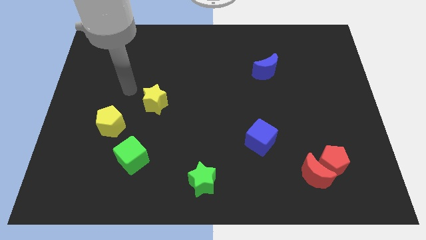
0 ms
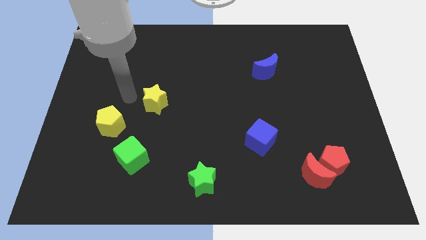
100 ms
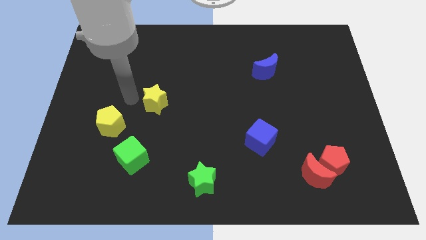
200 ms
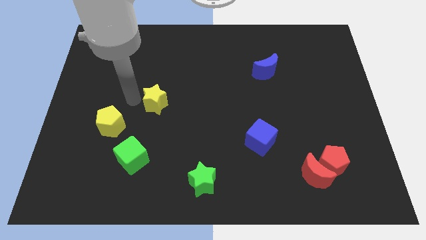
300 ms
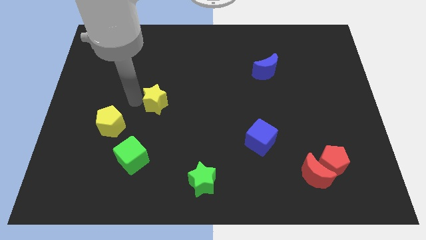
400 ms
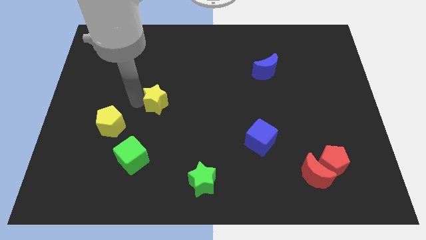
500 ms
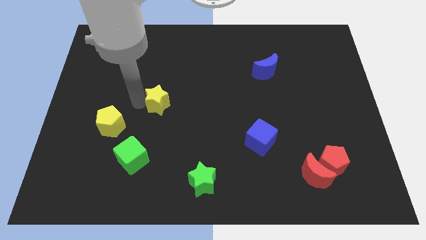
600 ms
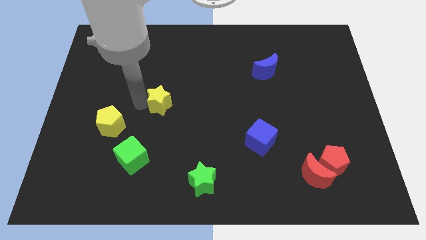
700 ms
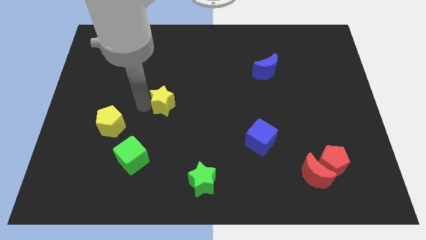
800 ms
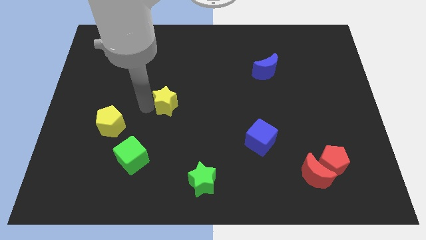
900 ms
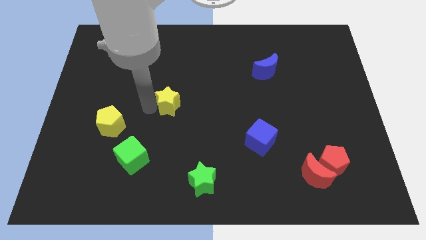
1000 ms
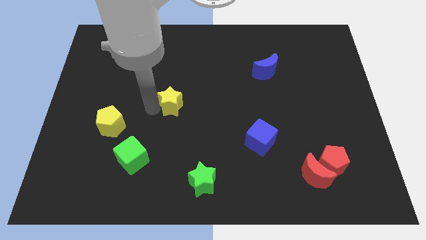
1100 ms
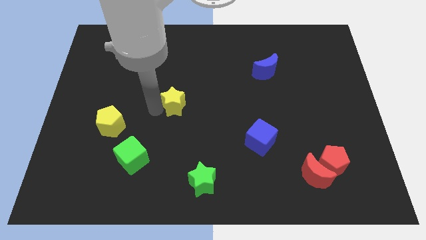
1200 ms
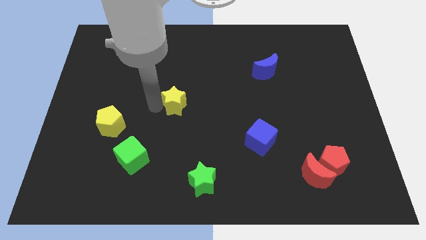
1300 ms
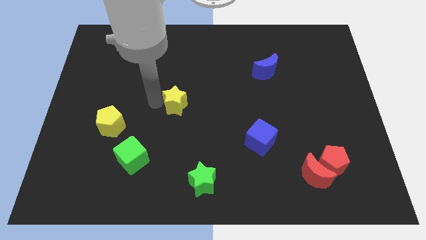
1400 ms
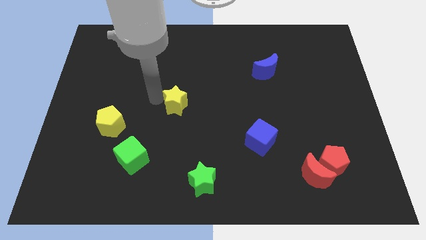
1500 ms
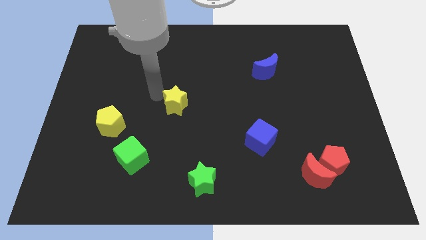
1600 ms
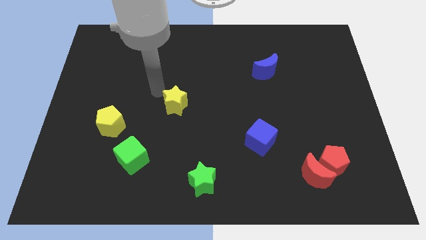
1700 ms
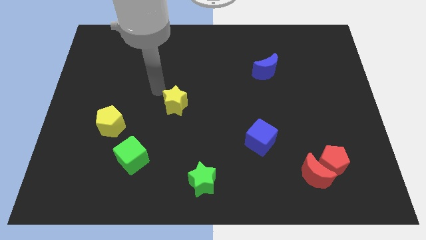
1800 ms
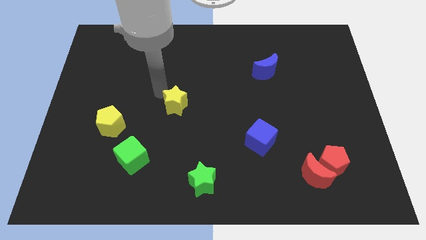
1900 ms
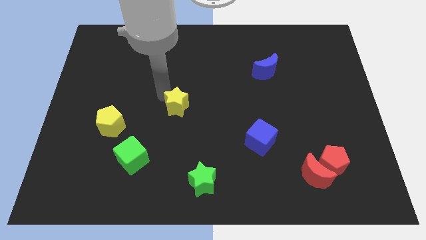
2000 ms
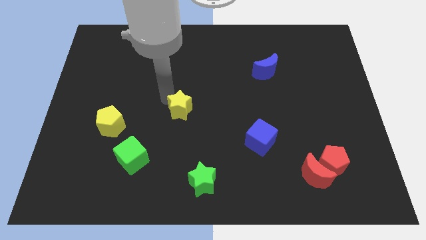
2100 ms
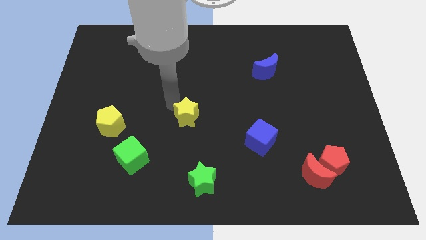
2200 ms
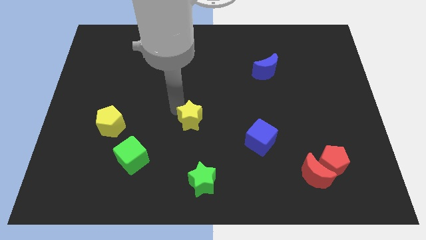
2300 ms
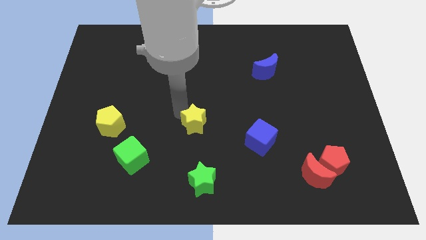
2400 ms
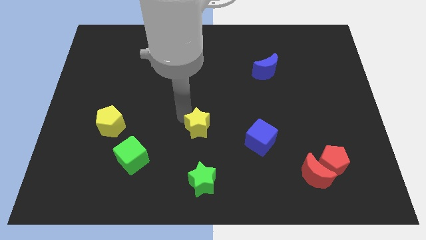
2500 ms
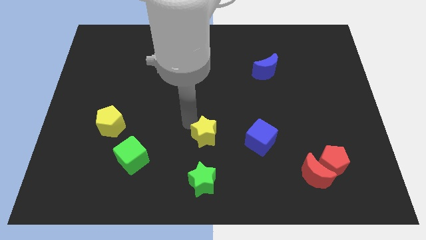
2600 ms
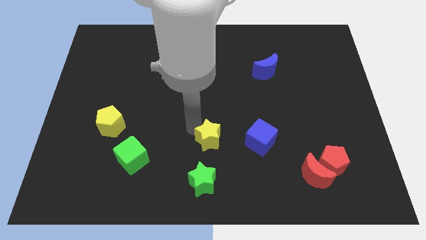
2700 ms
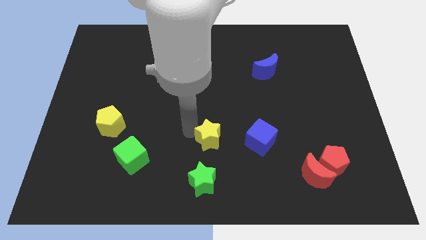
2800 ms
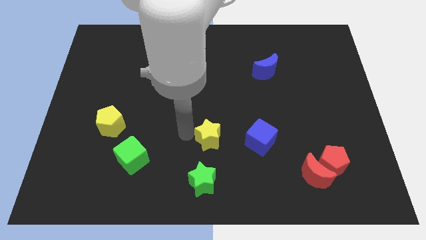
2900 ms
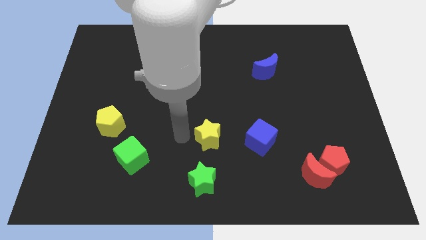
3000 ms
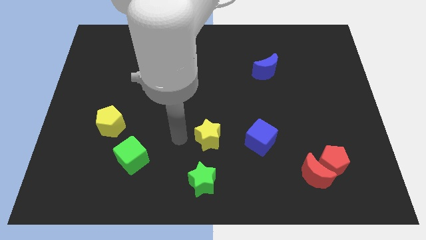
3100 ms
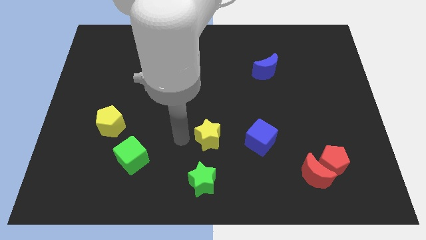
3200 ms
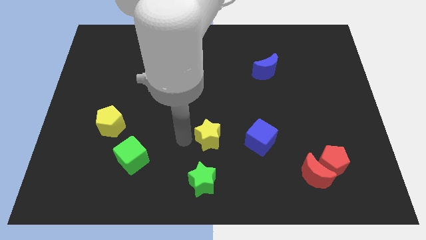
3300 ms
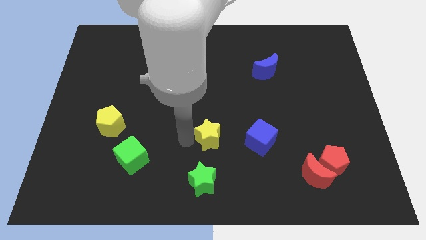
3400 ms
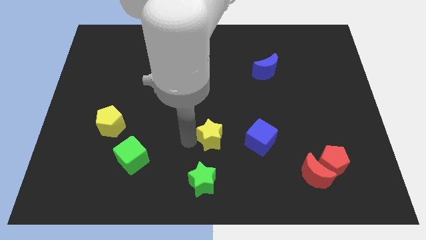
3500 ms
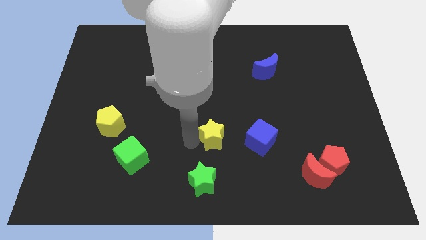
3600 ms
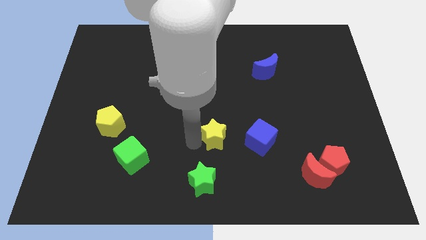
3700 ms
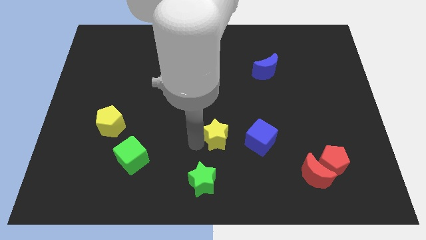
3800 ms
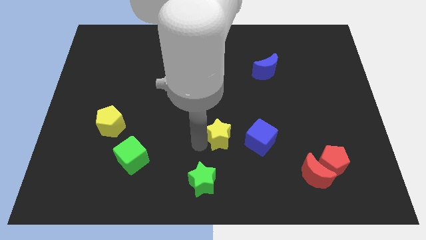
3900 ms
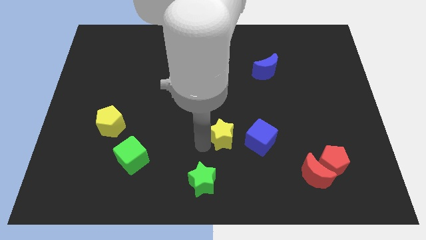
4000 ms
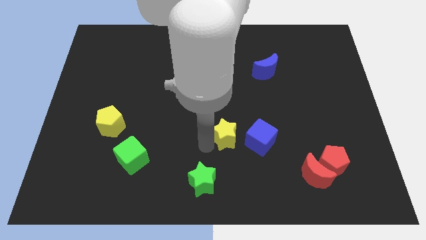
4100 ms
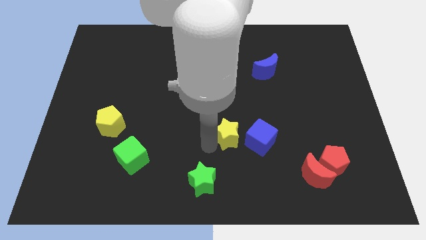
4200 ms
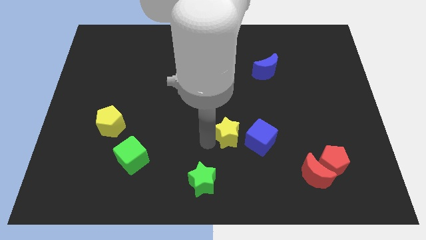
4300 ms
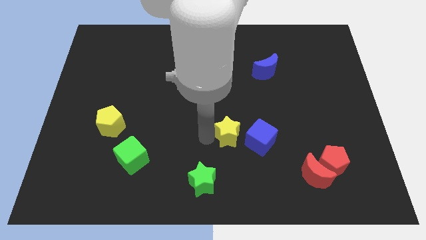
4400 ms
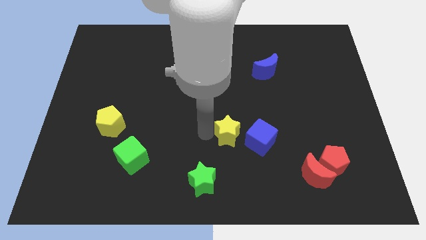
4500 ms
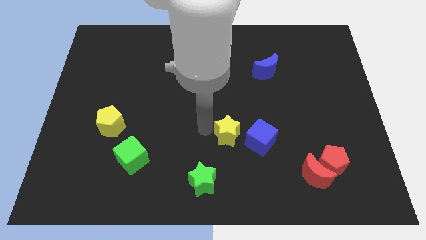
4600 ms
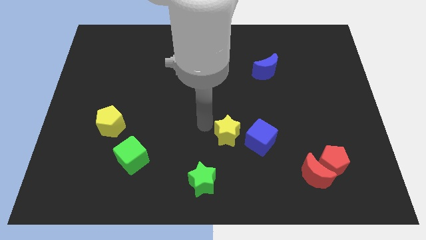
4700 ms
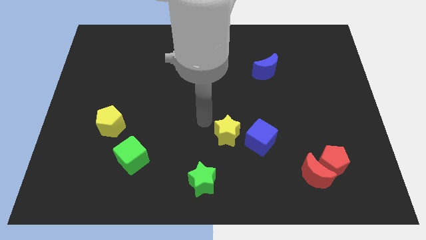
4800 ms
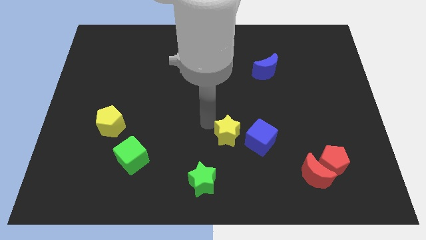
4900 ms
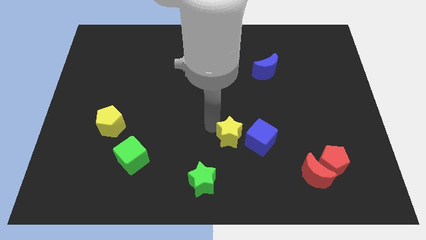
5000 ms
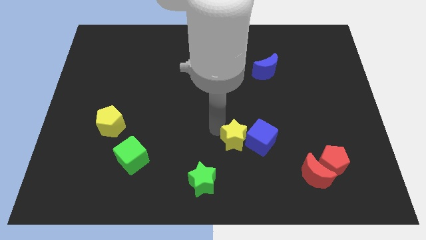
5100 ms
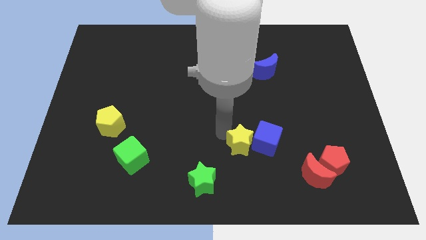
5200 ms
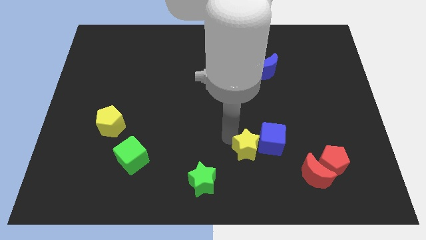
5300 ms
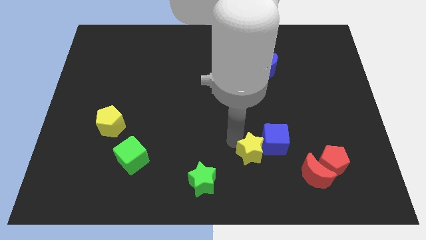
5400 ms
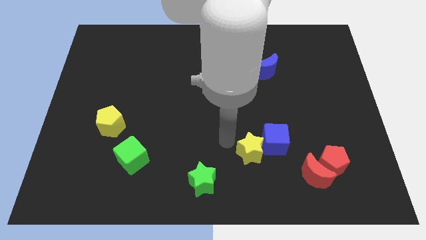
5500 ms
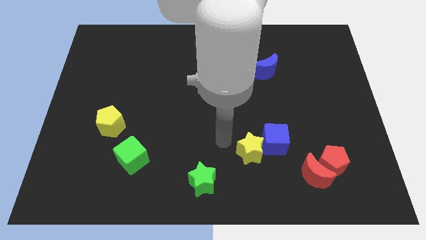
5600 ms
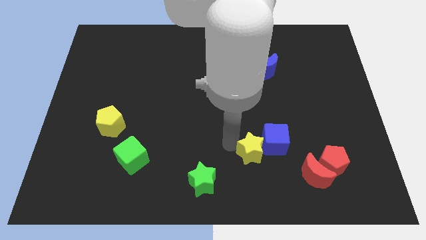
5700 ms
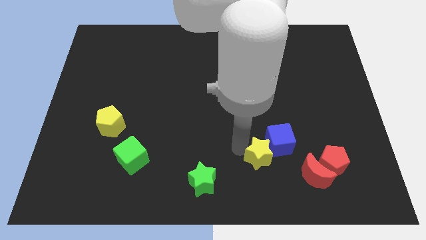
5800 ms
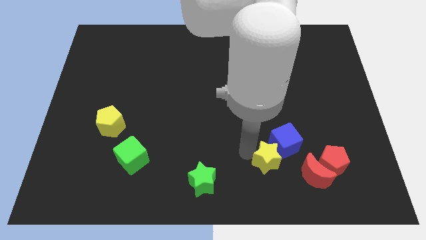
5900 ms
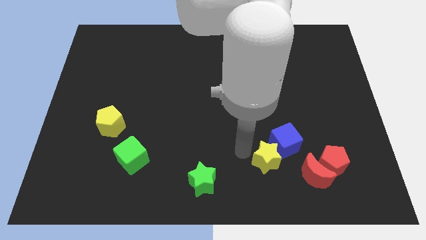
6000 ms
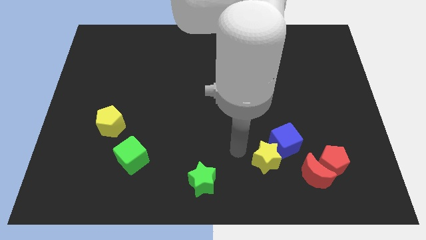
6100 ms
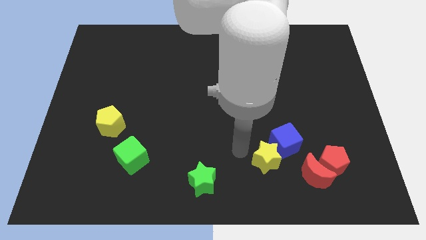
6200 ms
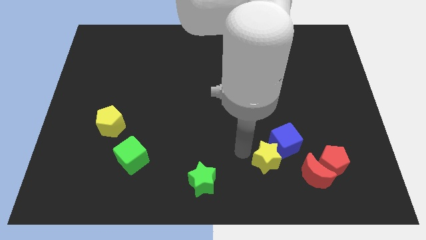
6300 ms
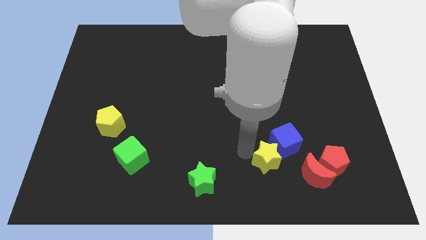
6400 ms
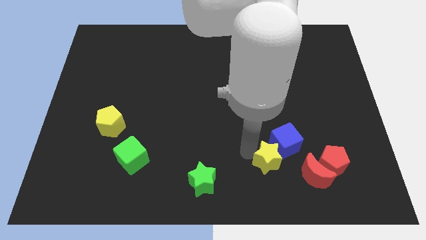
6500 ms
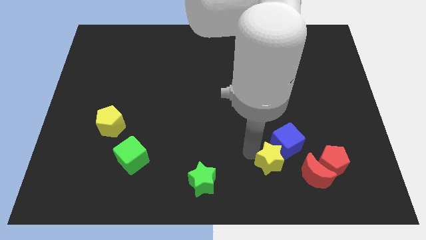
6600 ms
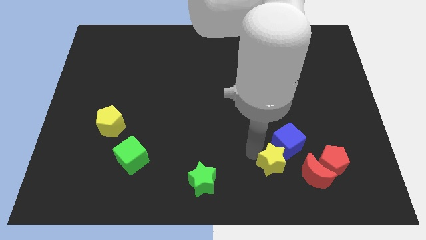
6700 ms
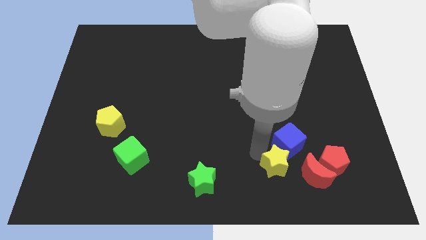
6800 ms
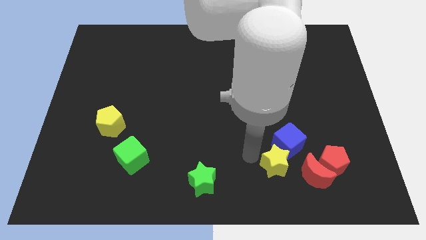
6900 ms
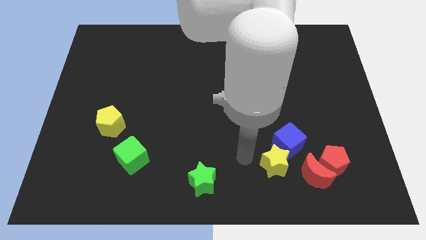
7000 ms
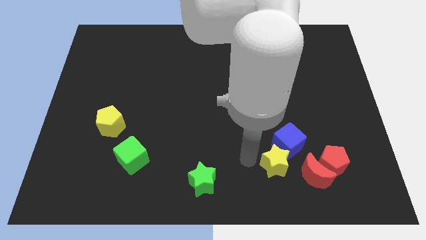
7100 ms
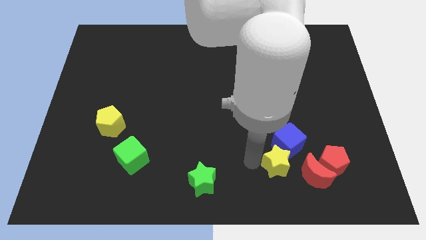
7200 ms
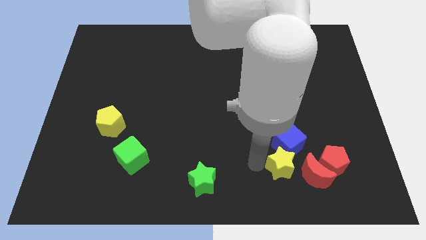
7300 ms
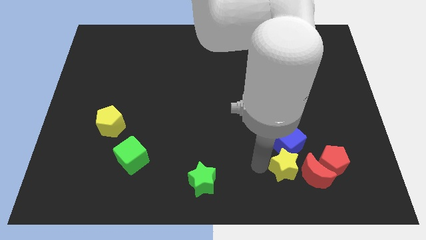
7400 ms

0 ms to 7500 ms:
put the yellow star close to the red moon

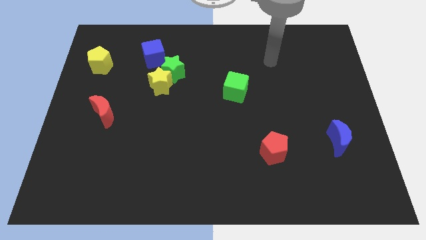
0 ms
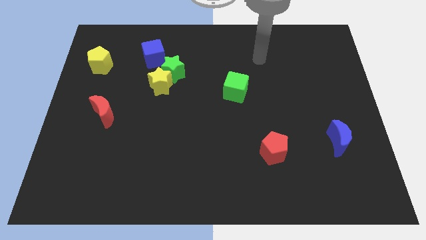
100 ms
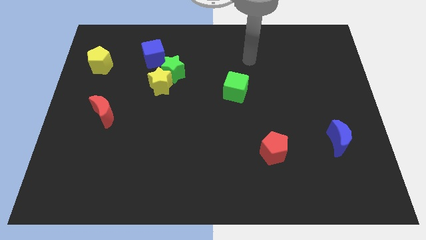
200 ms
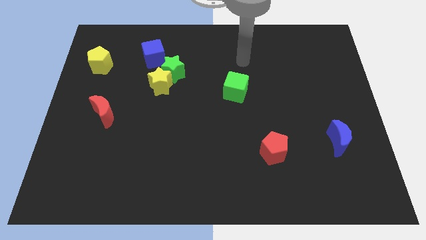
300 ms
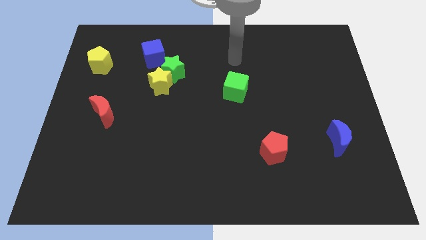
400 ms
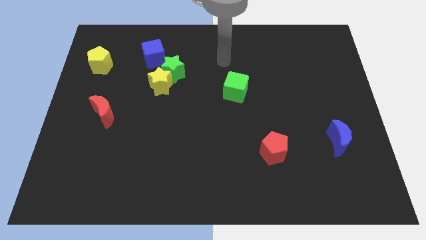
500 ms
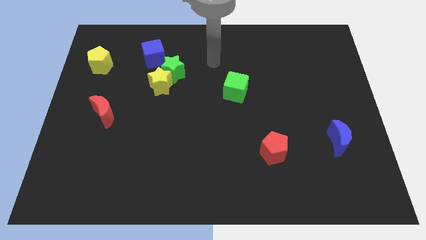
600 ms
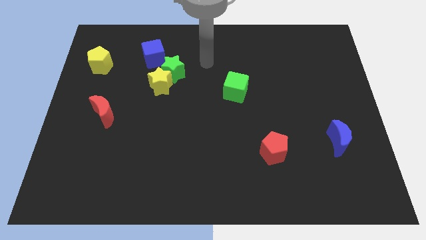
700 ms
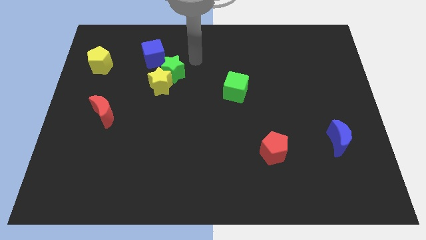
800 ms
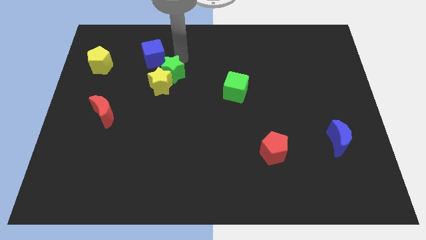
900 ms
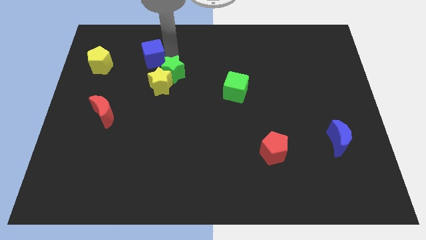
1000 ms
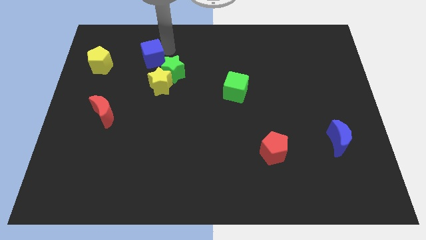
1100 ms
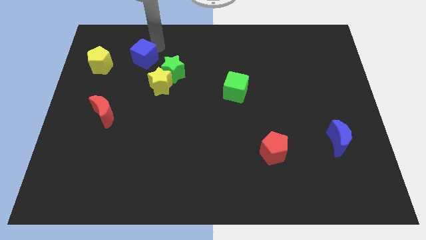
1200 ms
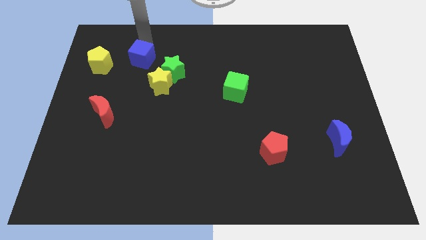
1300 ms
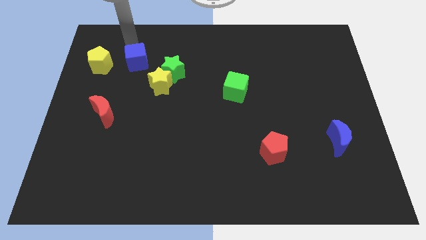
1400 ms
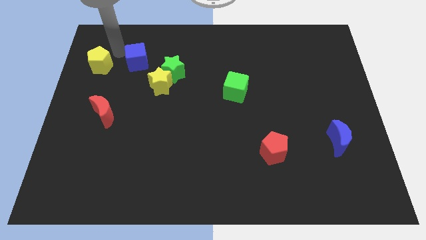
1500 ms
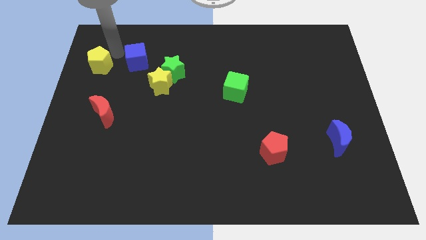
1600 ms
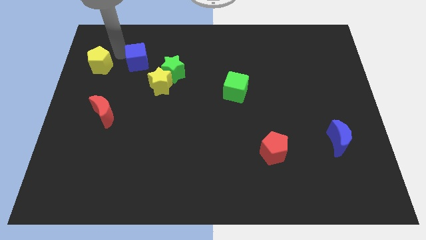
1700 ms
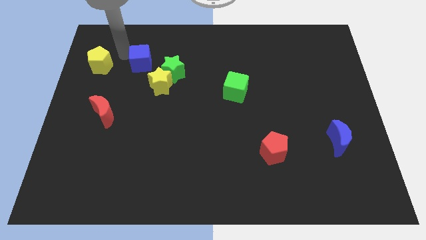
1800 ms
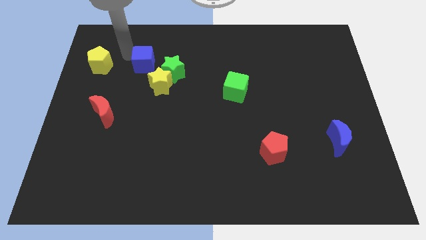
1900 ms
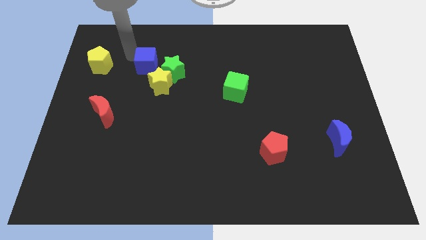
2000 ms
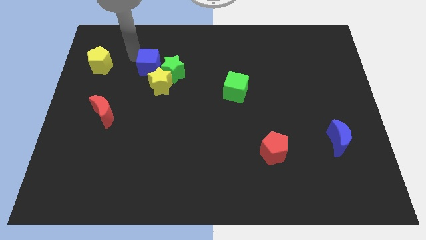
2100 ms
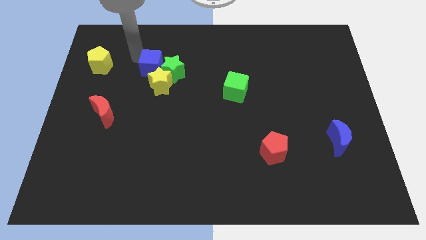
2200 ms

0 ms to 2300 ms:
move the blue cube close to the green star
